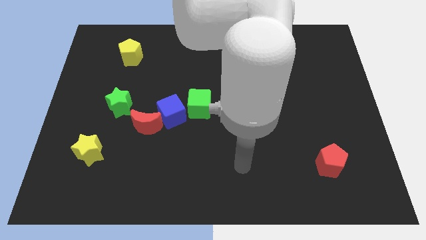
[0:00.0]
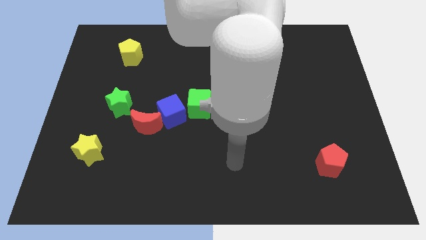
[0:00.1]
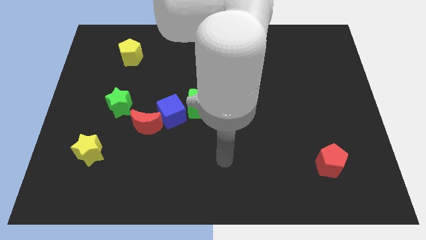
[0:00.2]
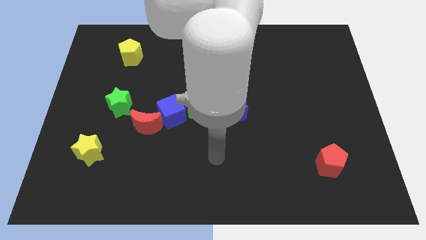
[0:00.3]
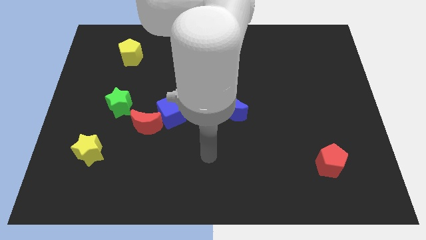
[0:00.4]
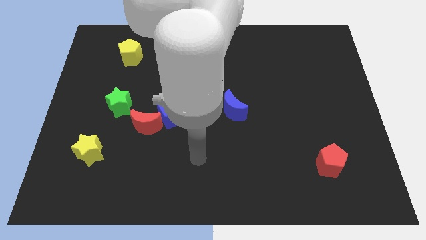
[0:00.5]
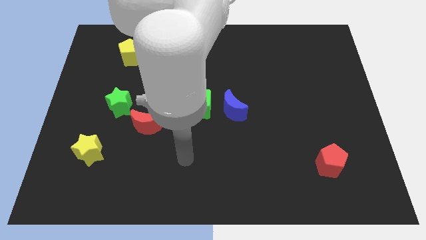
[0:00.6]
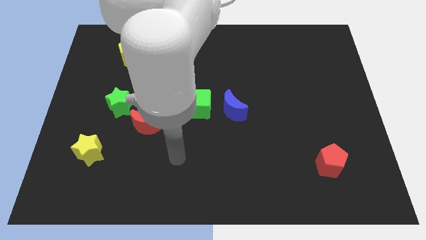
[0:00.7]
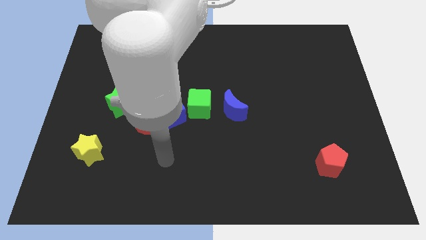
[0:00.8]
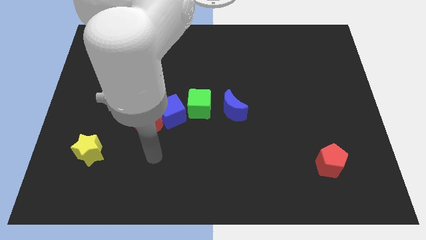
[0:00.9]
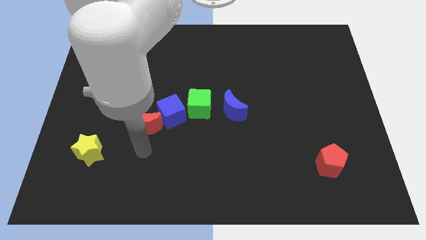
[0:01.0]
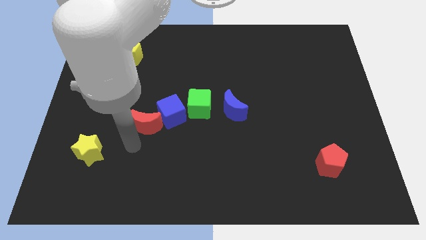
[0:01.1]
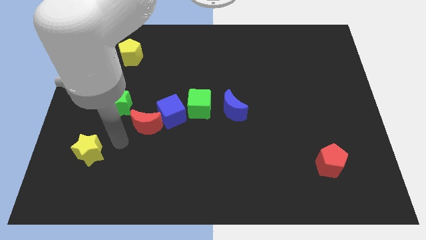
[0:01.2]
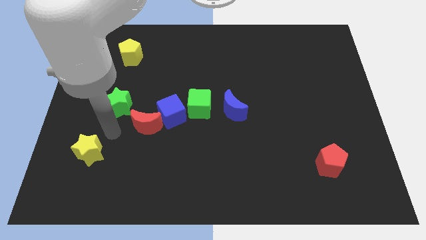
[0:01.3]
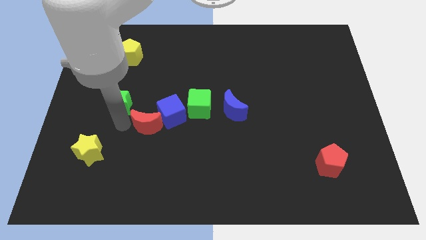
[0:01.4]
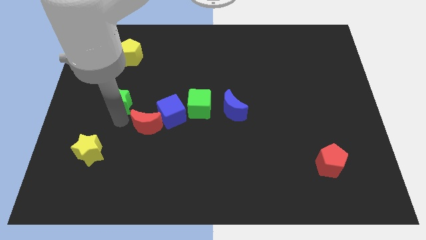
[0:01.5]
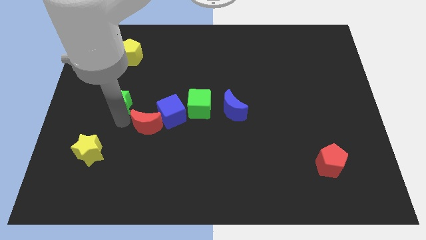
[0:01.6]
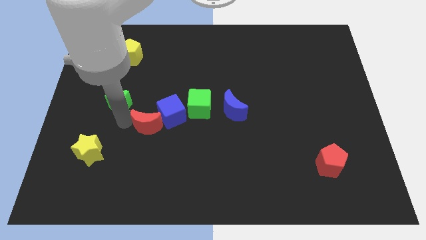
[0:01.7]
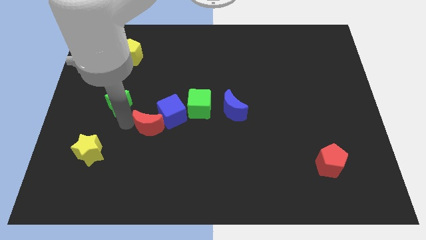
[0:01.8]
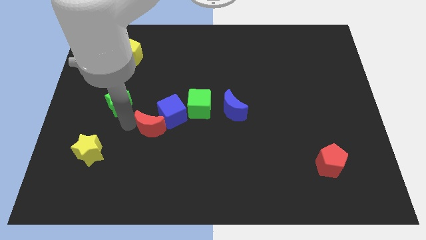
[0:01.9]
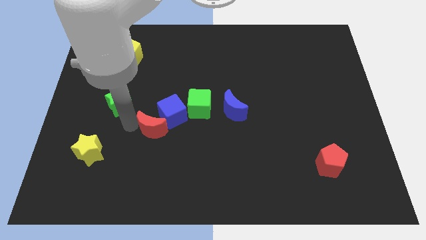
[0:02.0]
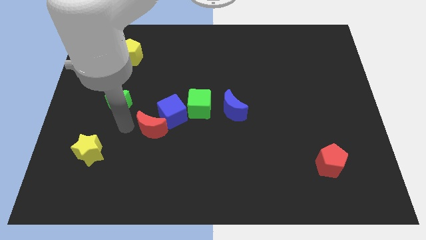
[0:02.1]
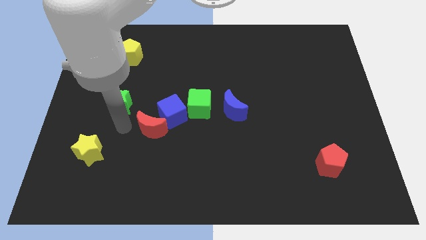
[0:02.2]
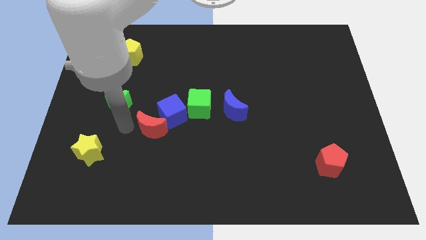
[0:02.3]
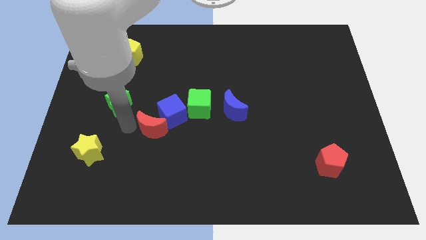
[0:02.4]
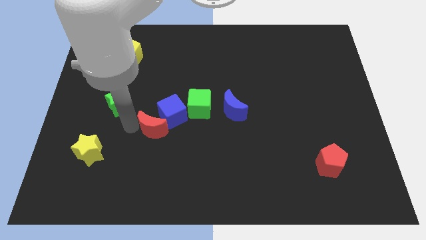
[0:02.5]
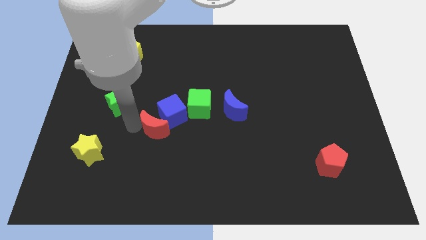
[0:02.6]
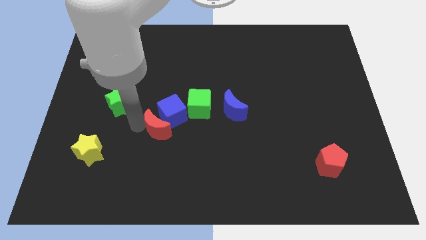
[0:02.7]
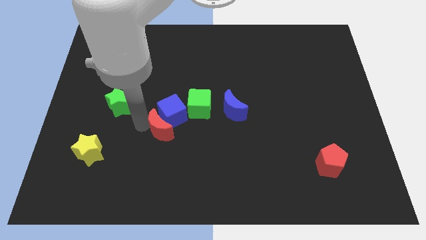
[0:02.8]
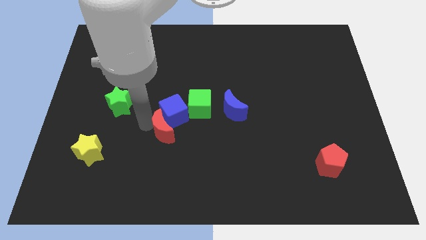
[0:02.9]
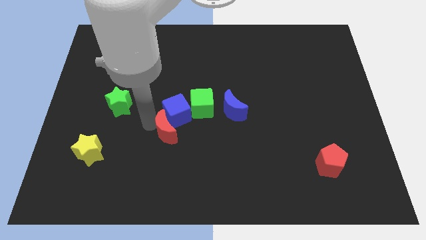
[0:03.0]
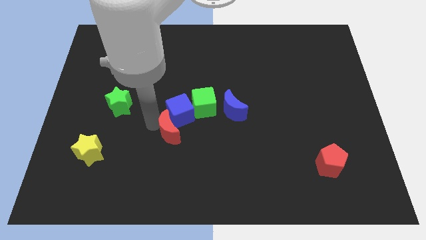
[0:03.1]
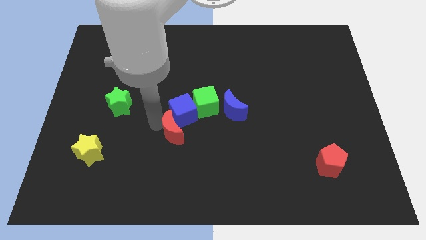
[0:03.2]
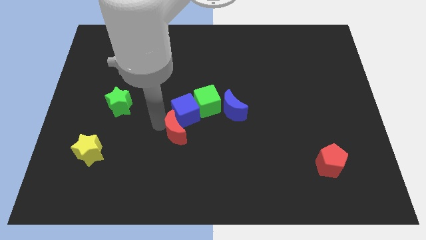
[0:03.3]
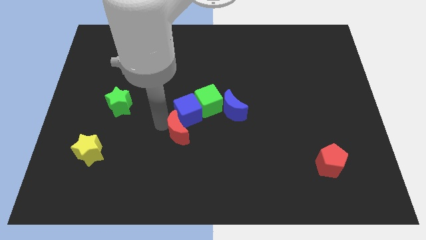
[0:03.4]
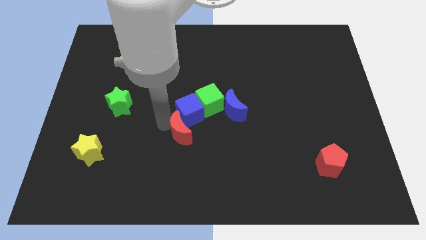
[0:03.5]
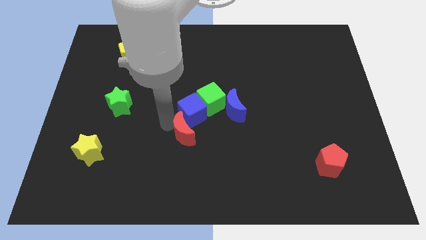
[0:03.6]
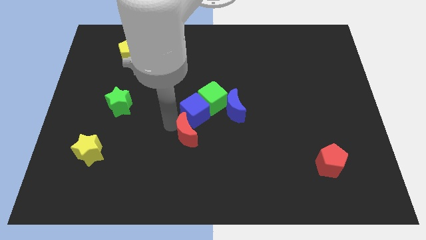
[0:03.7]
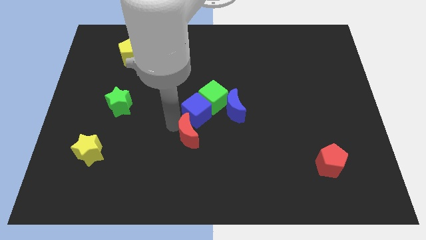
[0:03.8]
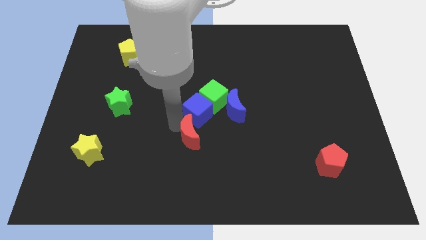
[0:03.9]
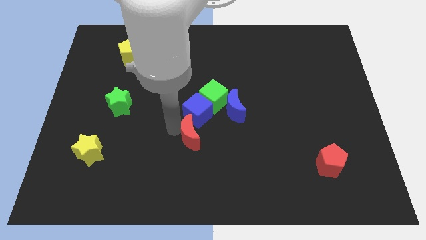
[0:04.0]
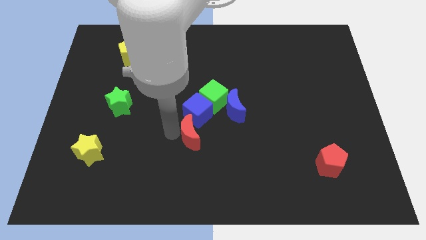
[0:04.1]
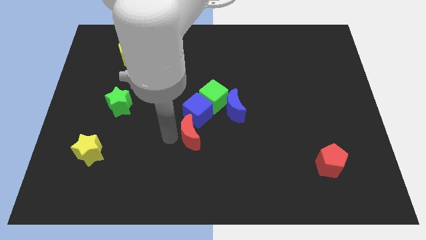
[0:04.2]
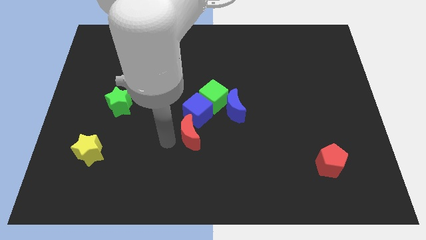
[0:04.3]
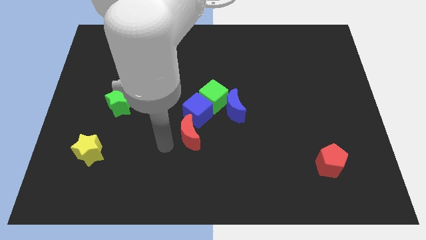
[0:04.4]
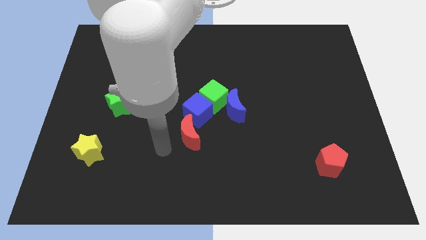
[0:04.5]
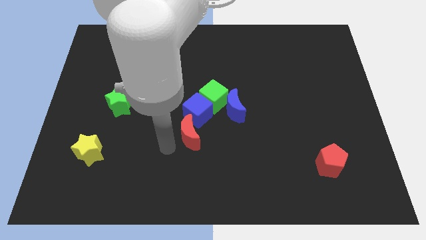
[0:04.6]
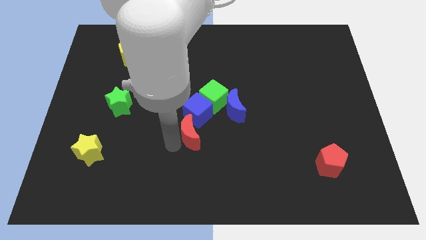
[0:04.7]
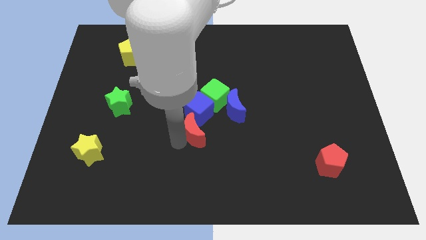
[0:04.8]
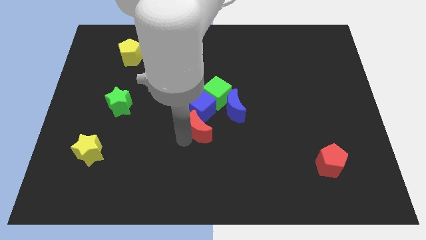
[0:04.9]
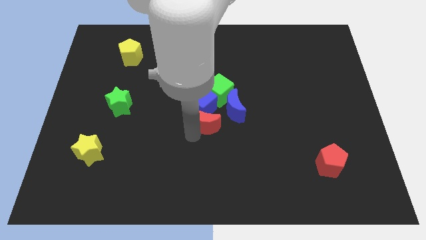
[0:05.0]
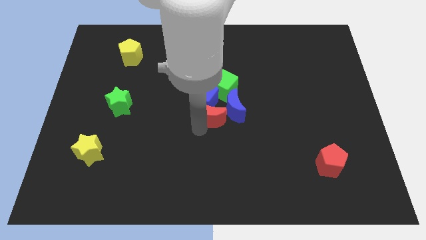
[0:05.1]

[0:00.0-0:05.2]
move the red moon close to the blue moon

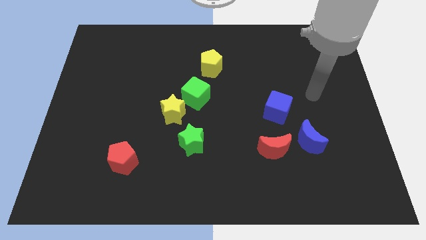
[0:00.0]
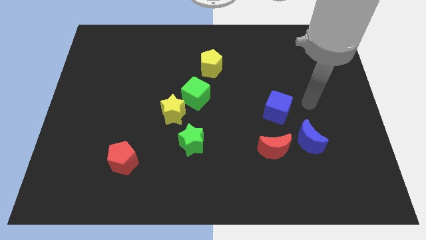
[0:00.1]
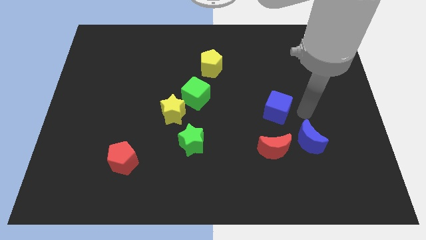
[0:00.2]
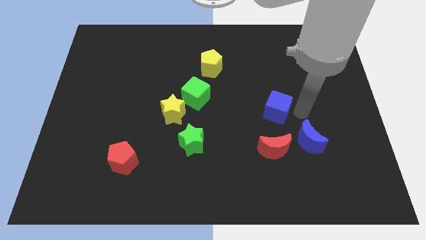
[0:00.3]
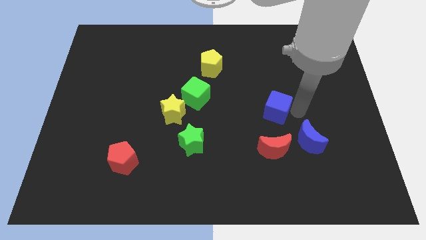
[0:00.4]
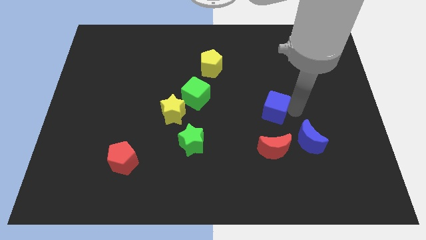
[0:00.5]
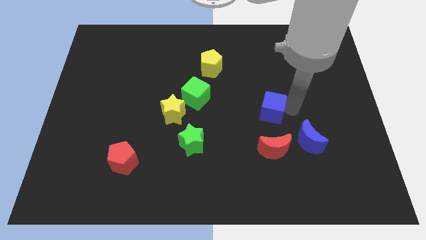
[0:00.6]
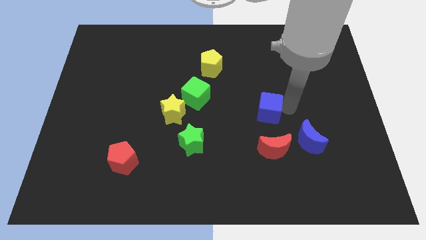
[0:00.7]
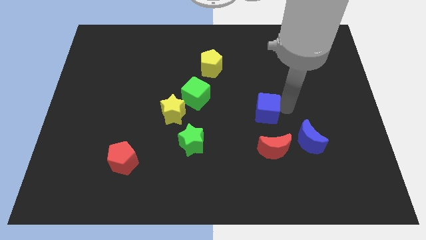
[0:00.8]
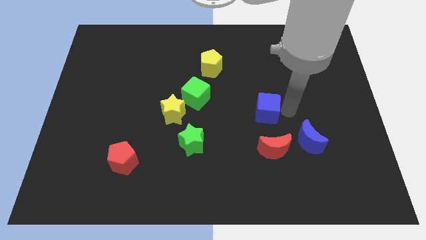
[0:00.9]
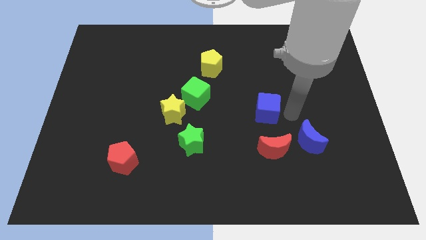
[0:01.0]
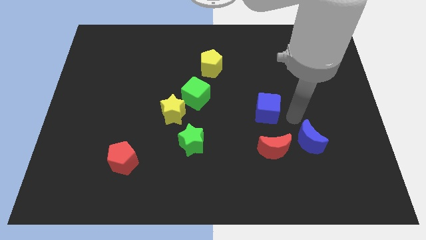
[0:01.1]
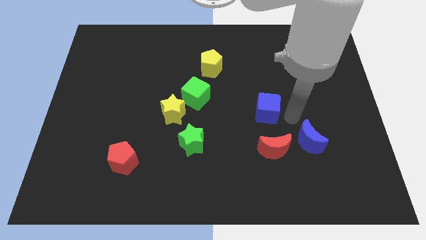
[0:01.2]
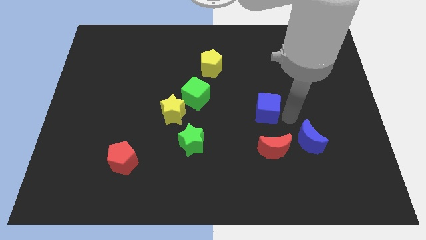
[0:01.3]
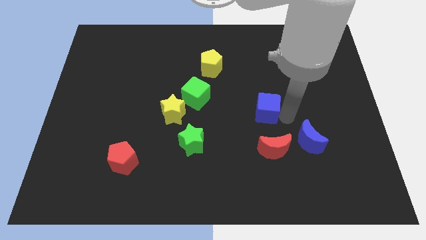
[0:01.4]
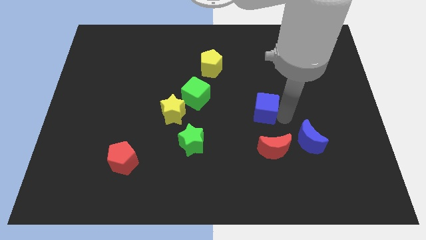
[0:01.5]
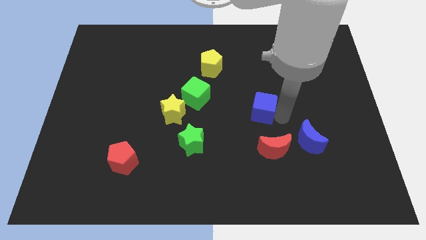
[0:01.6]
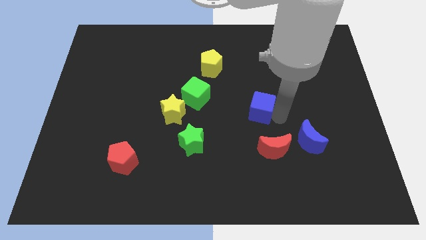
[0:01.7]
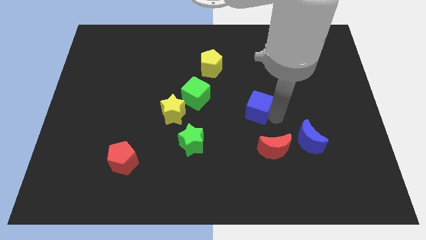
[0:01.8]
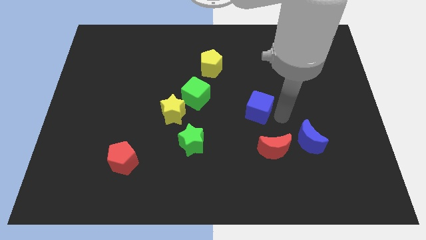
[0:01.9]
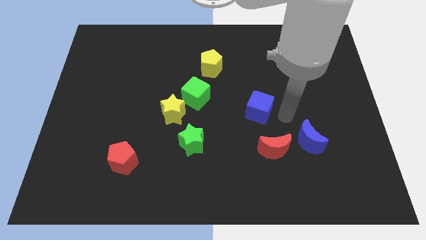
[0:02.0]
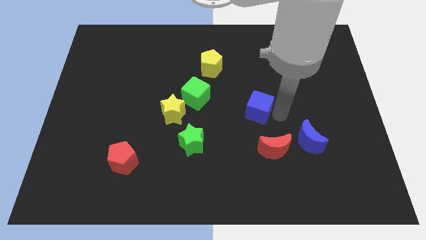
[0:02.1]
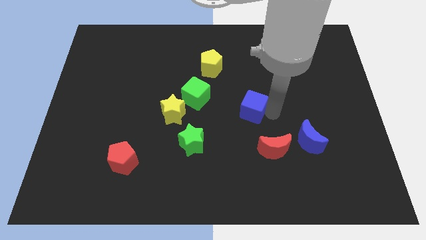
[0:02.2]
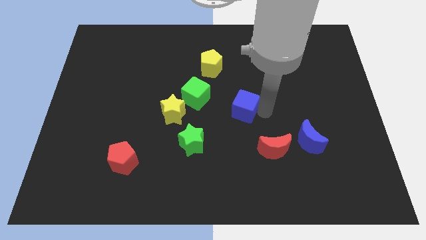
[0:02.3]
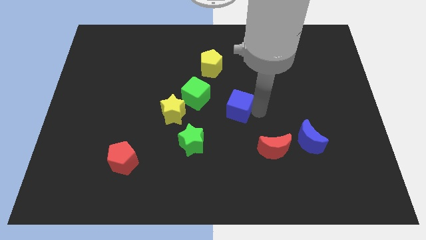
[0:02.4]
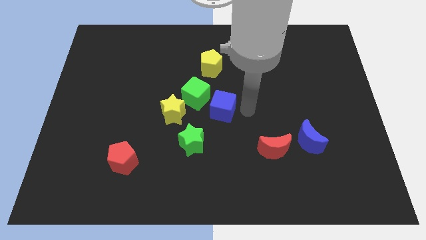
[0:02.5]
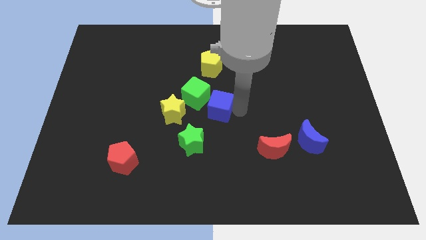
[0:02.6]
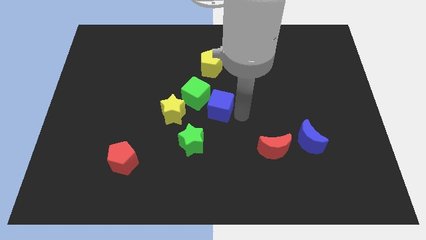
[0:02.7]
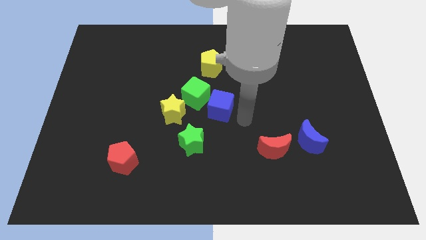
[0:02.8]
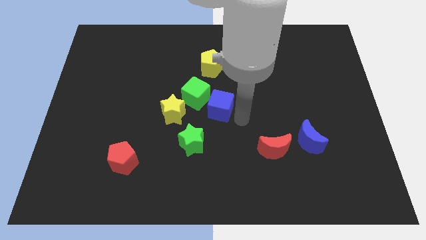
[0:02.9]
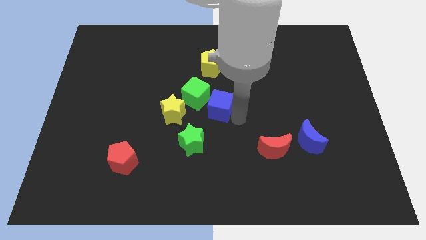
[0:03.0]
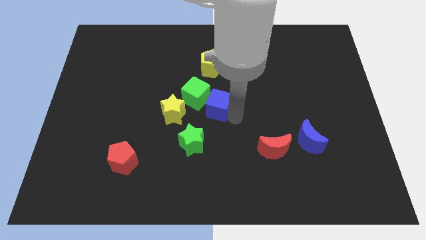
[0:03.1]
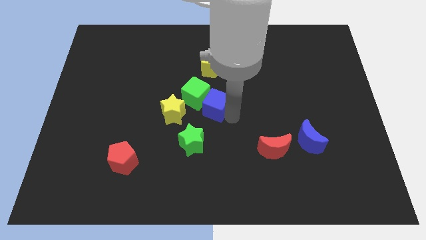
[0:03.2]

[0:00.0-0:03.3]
push the blue cube towards the green cube
